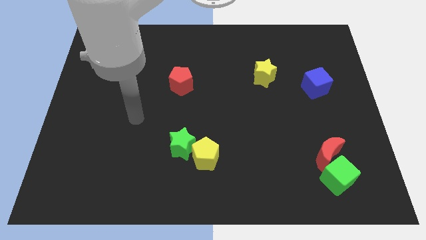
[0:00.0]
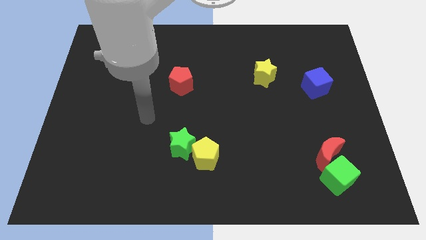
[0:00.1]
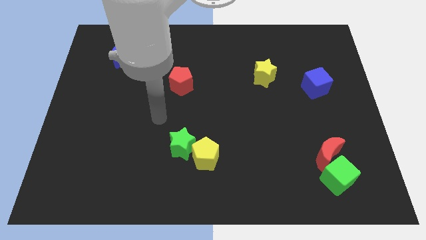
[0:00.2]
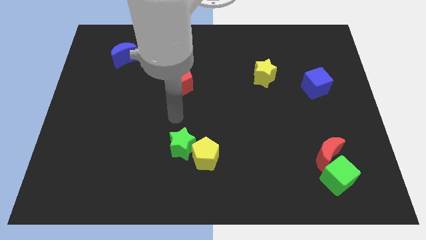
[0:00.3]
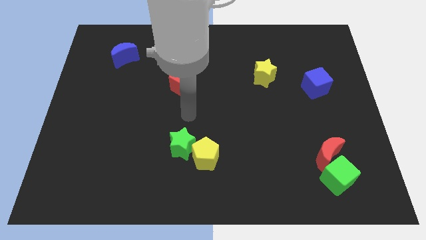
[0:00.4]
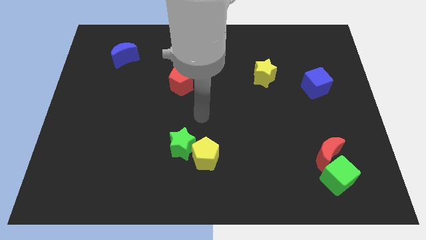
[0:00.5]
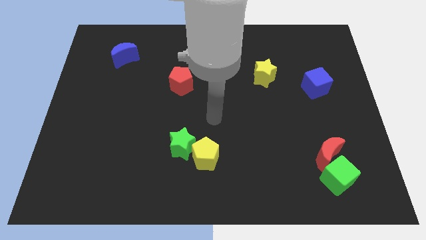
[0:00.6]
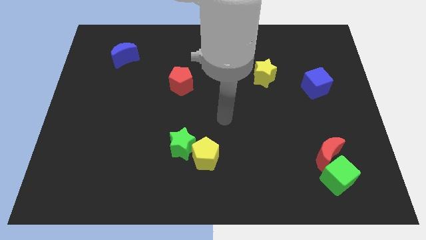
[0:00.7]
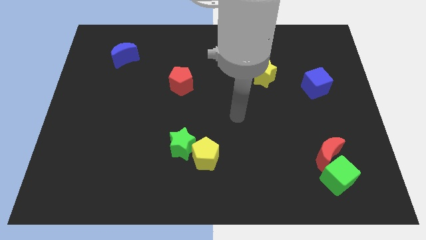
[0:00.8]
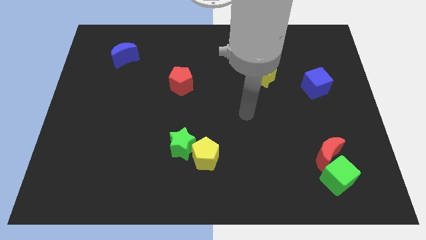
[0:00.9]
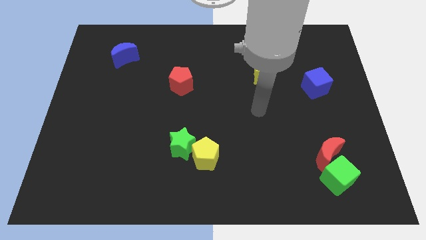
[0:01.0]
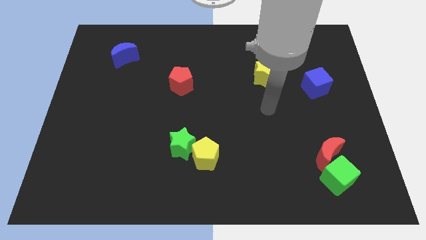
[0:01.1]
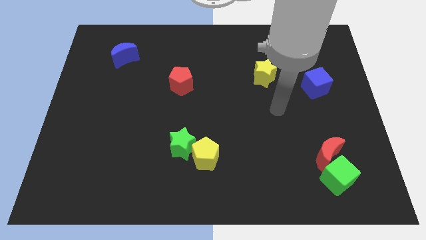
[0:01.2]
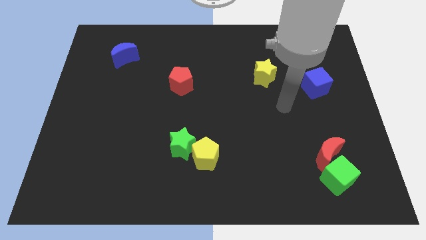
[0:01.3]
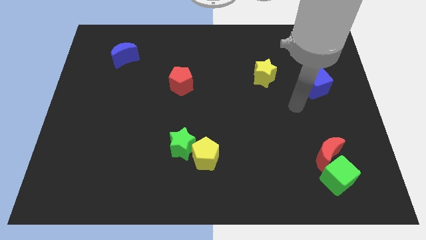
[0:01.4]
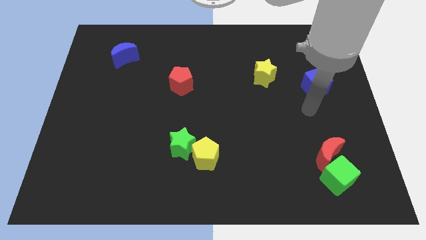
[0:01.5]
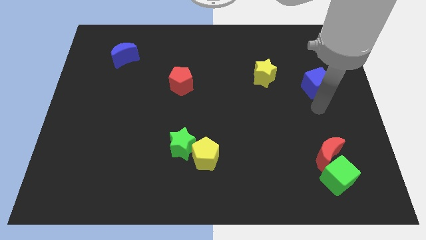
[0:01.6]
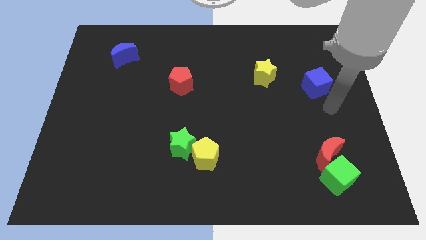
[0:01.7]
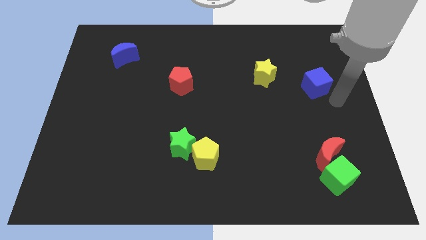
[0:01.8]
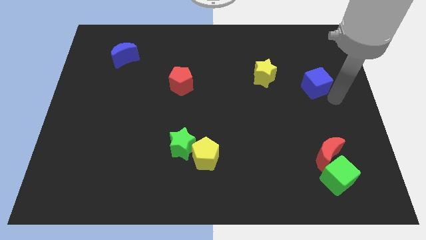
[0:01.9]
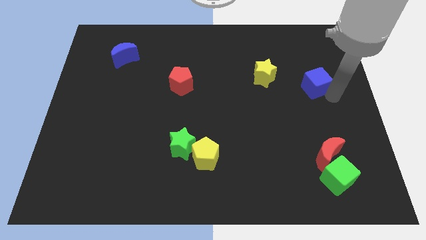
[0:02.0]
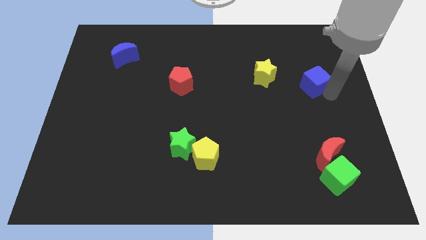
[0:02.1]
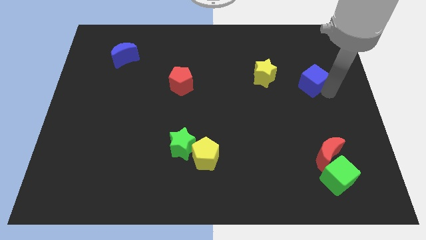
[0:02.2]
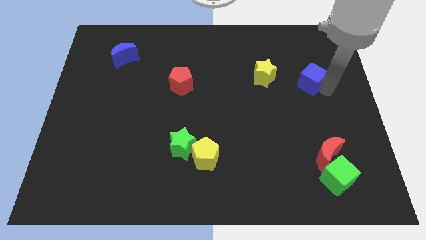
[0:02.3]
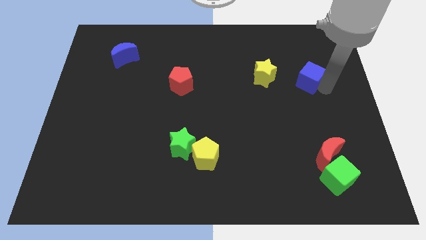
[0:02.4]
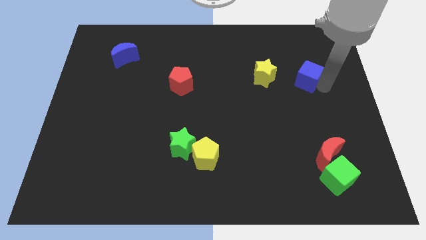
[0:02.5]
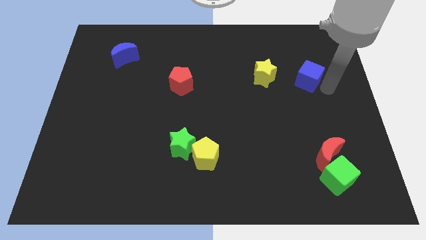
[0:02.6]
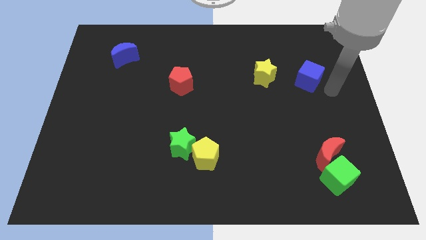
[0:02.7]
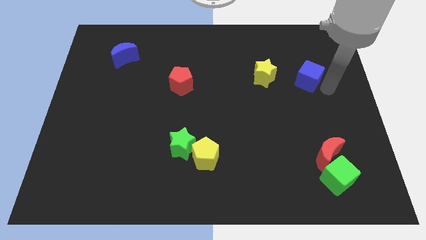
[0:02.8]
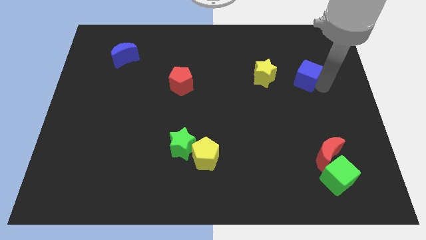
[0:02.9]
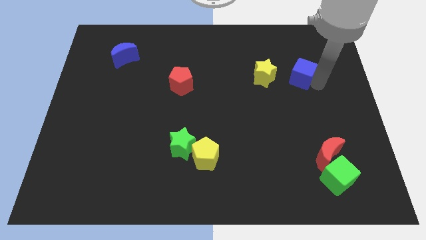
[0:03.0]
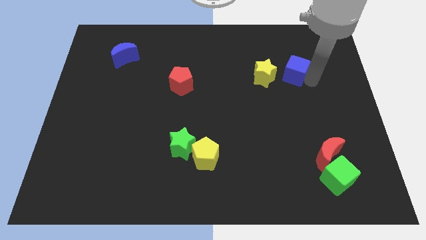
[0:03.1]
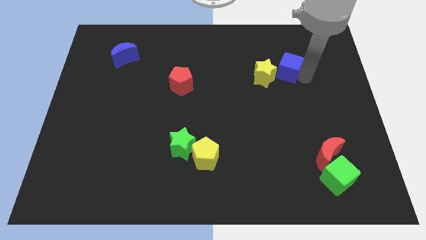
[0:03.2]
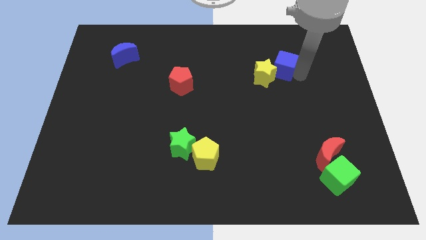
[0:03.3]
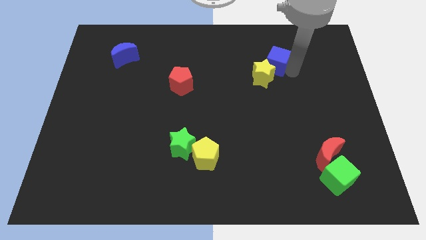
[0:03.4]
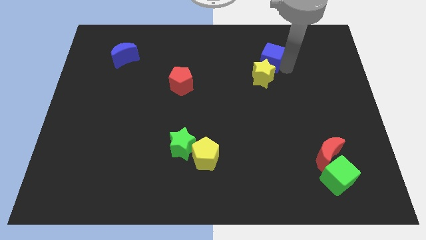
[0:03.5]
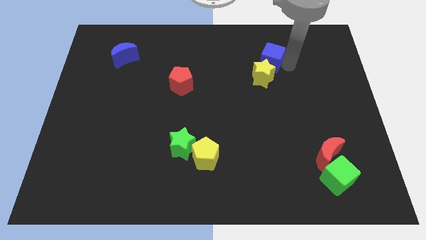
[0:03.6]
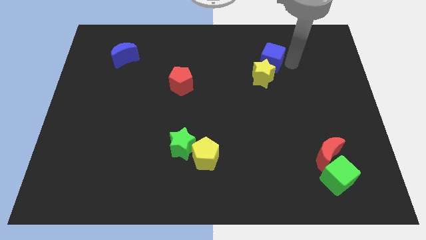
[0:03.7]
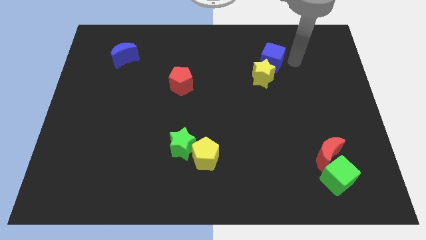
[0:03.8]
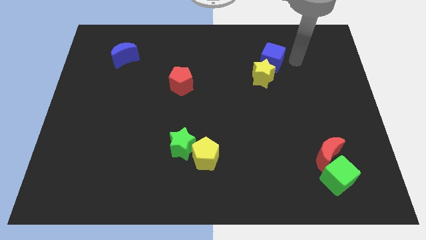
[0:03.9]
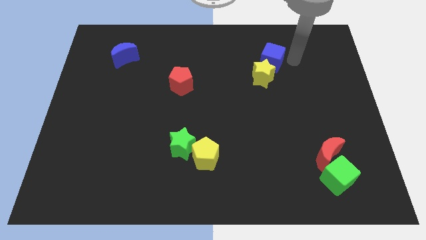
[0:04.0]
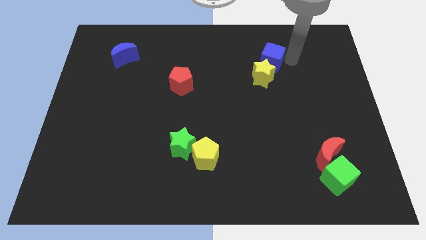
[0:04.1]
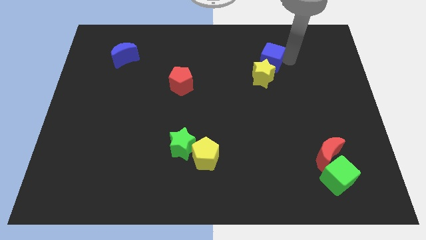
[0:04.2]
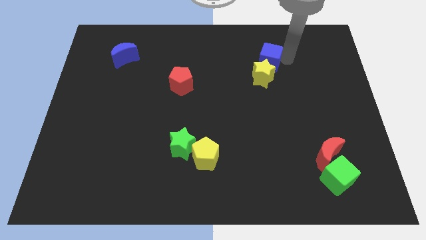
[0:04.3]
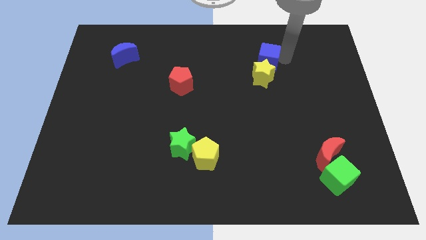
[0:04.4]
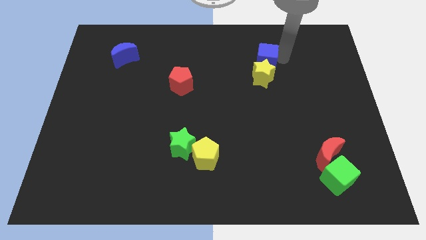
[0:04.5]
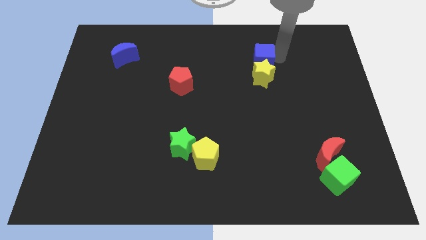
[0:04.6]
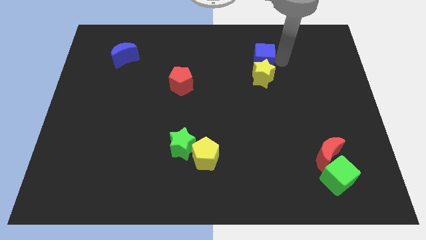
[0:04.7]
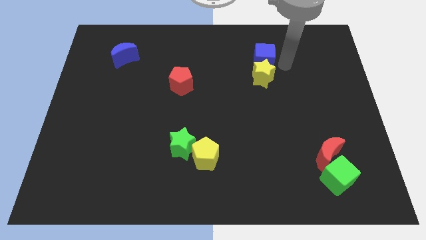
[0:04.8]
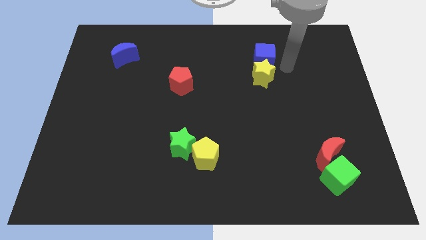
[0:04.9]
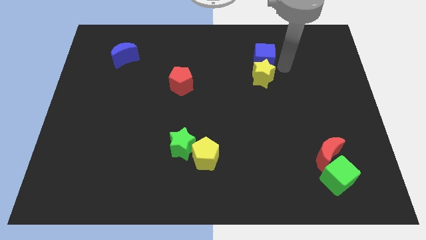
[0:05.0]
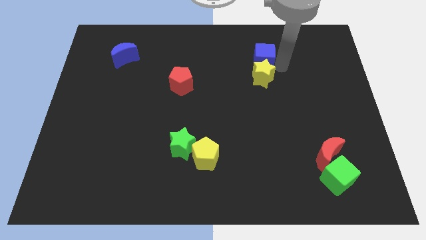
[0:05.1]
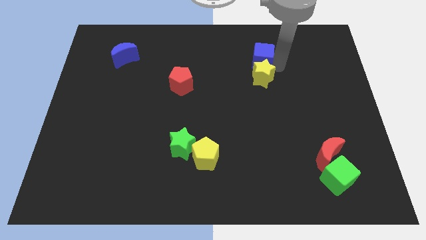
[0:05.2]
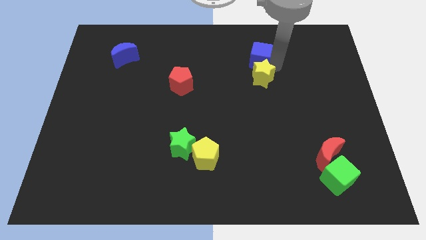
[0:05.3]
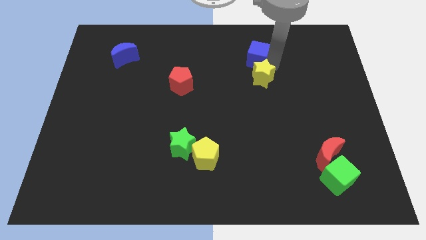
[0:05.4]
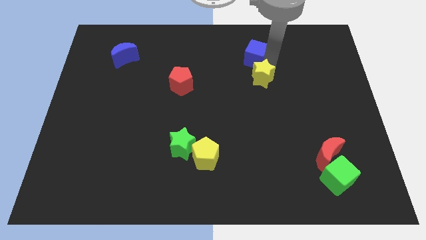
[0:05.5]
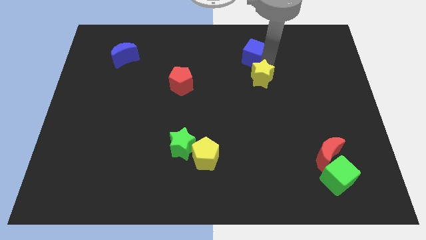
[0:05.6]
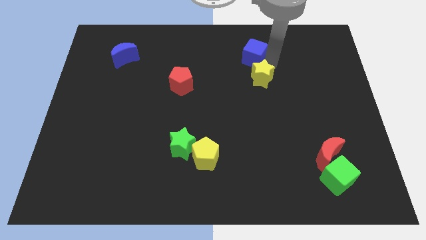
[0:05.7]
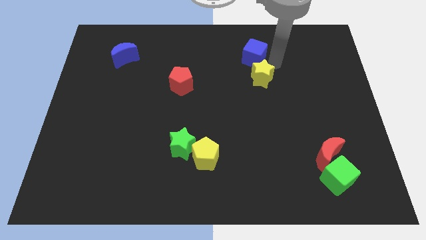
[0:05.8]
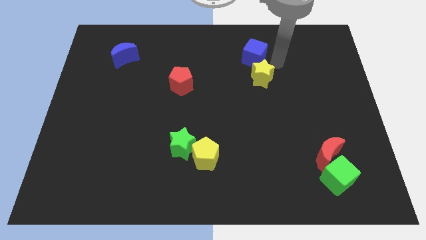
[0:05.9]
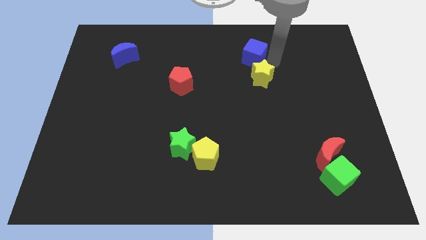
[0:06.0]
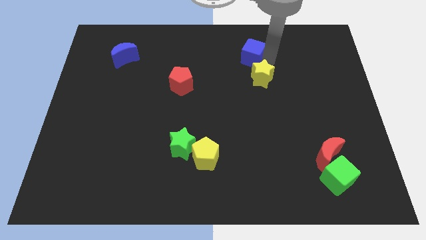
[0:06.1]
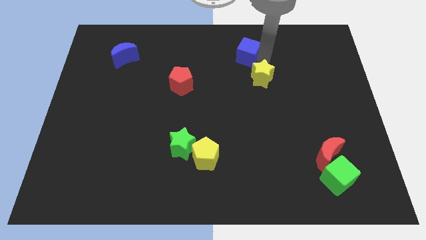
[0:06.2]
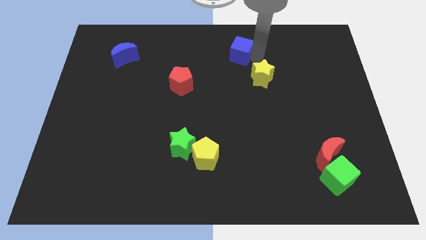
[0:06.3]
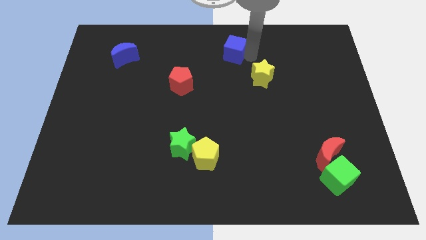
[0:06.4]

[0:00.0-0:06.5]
slide the blue cube to the towards your base
